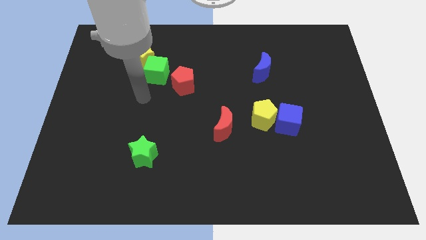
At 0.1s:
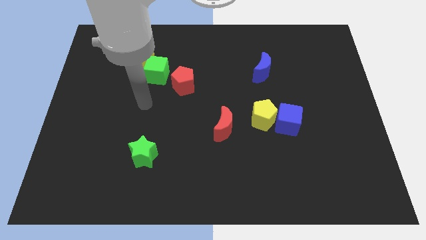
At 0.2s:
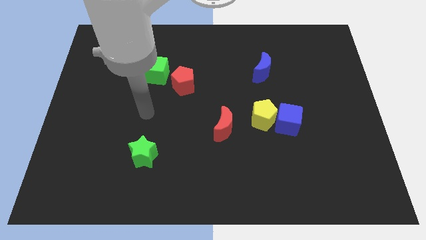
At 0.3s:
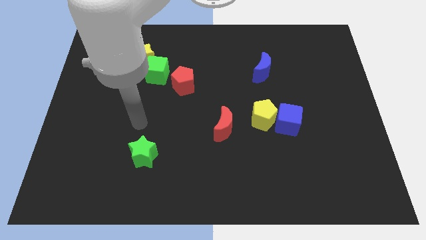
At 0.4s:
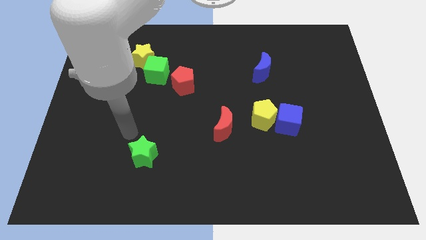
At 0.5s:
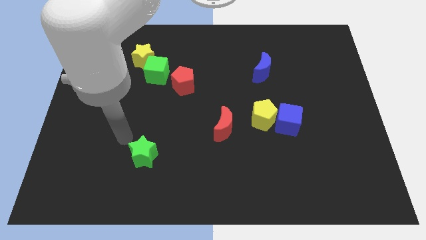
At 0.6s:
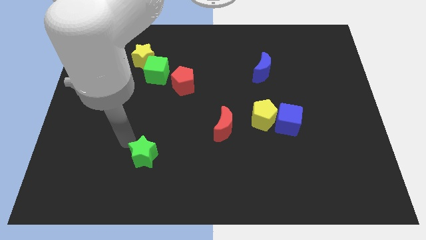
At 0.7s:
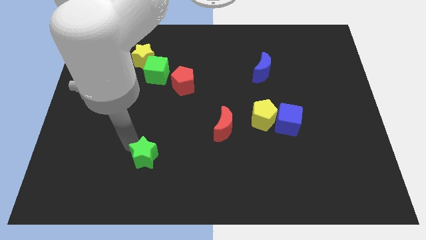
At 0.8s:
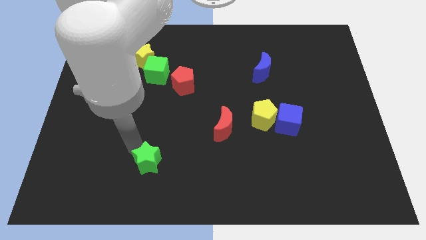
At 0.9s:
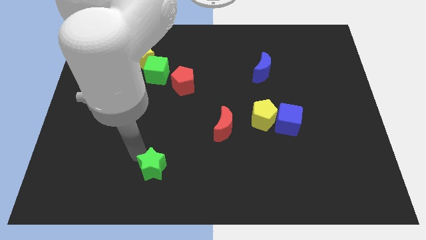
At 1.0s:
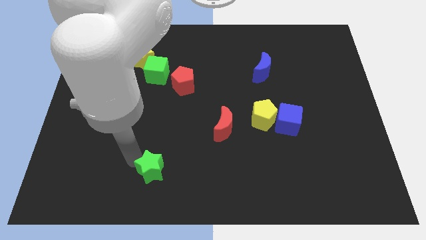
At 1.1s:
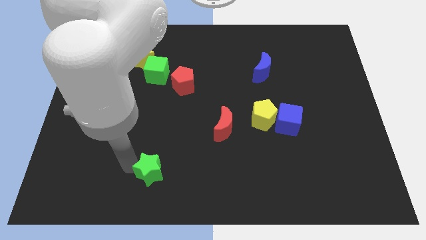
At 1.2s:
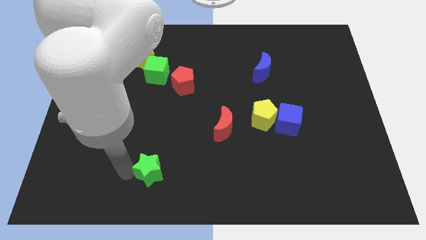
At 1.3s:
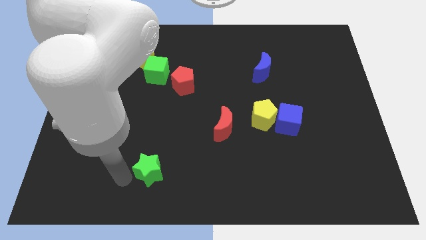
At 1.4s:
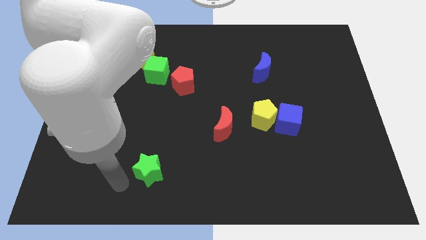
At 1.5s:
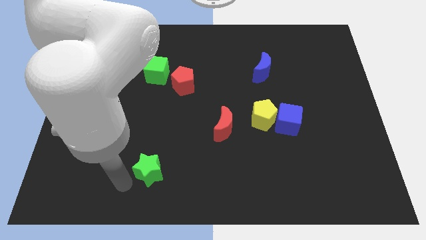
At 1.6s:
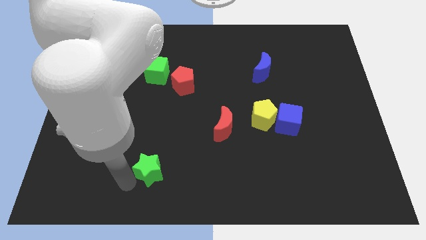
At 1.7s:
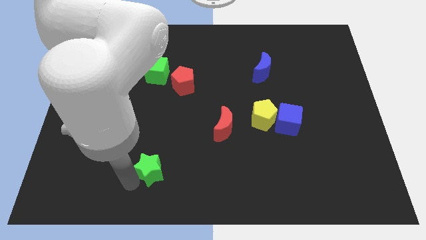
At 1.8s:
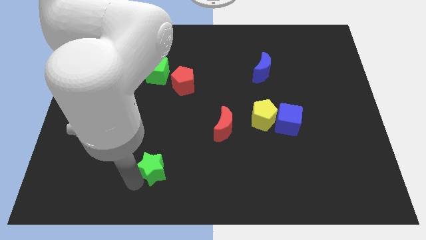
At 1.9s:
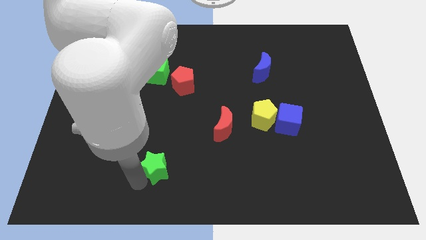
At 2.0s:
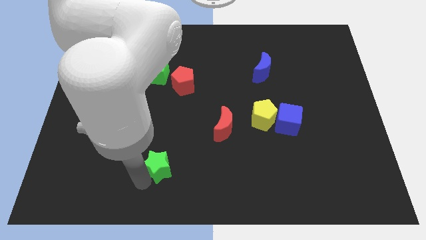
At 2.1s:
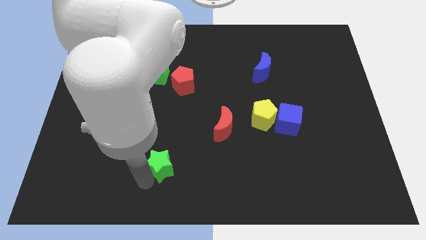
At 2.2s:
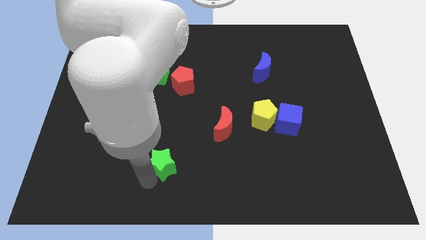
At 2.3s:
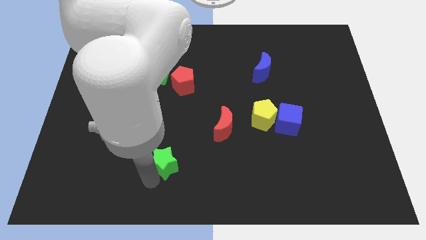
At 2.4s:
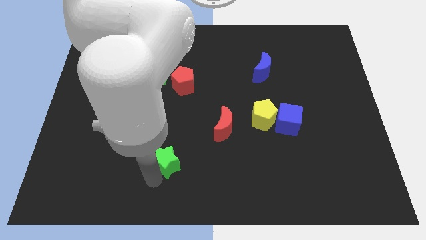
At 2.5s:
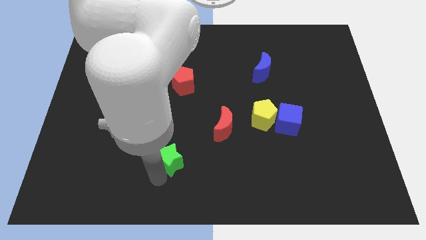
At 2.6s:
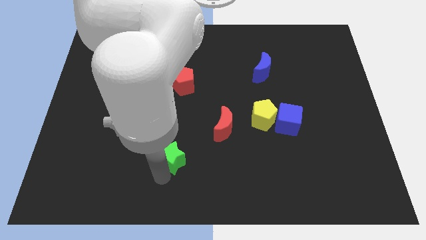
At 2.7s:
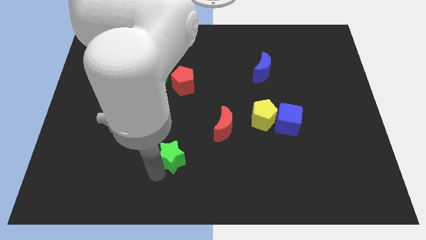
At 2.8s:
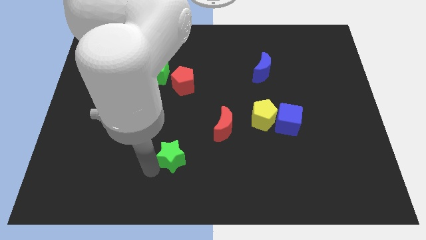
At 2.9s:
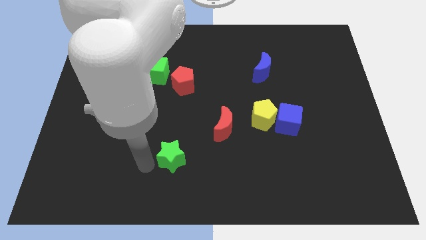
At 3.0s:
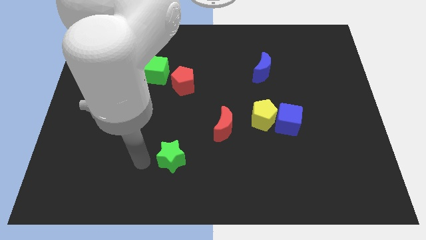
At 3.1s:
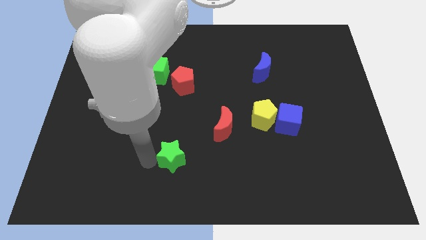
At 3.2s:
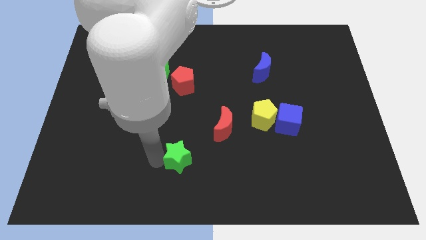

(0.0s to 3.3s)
slightly push the green star right

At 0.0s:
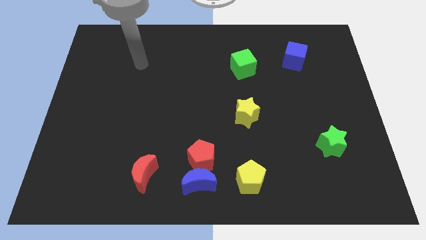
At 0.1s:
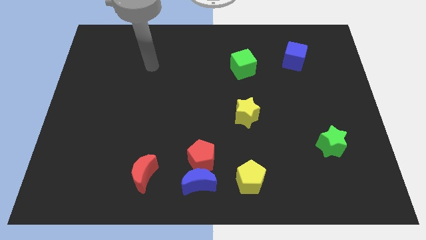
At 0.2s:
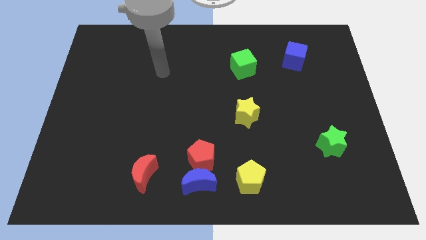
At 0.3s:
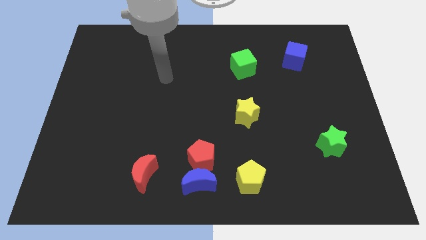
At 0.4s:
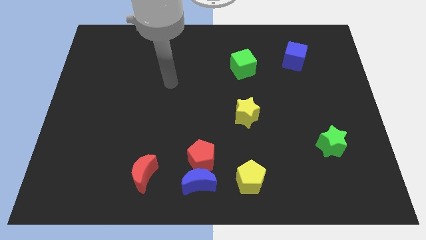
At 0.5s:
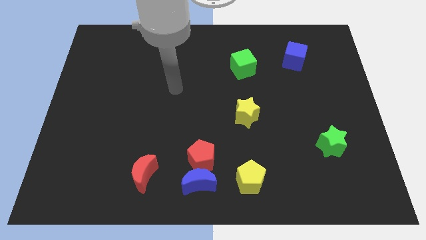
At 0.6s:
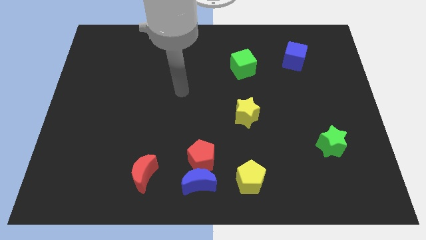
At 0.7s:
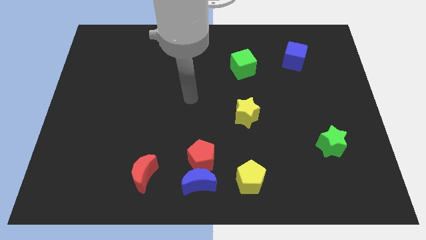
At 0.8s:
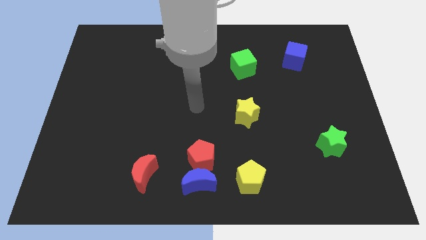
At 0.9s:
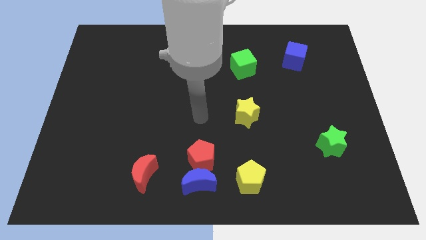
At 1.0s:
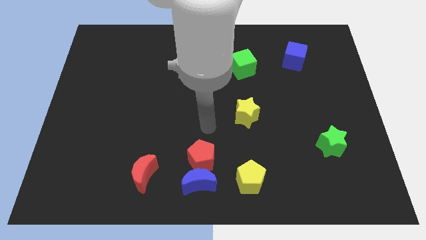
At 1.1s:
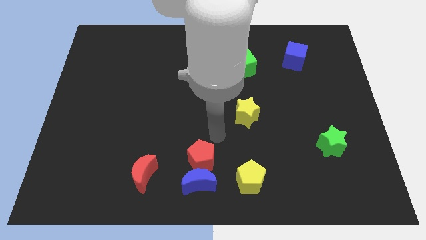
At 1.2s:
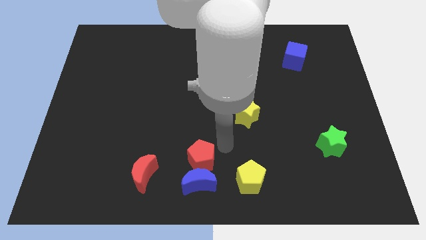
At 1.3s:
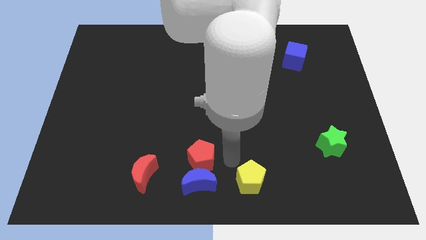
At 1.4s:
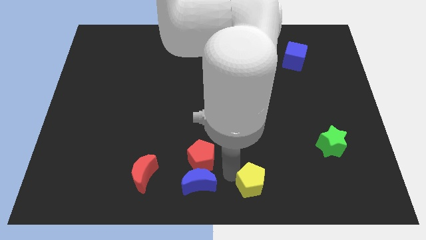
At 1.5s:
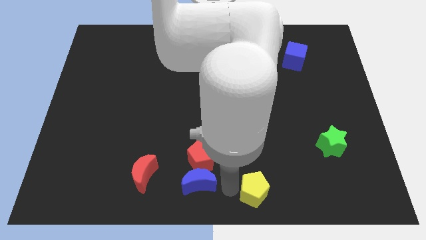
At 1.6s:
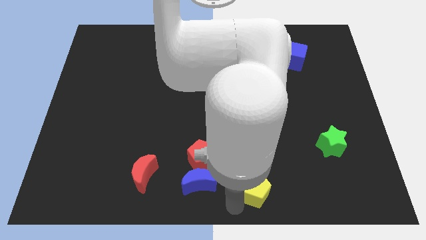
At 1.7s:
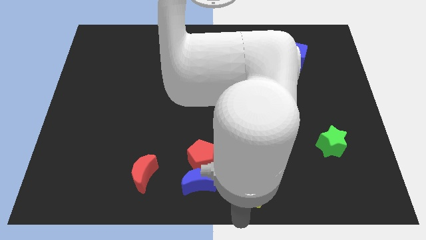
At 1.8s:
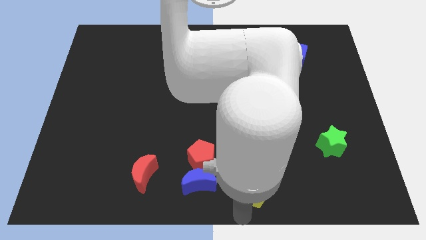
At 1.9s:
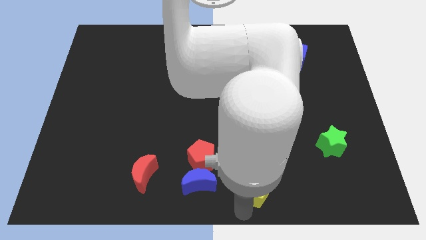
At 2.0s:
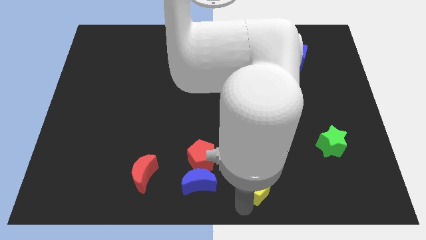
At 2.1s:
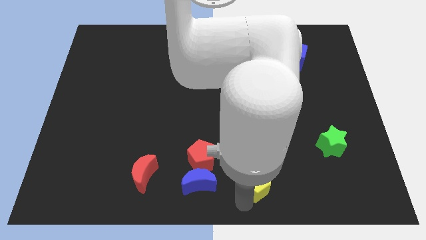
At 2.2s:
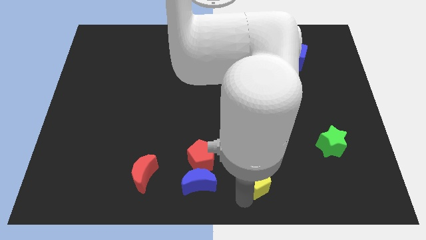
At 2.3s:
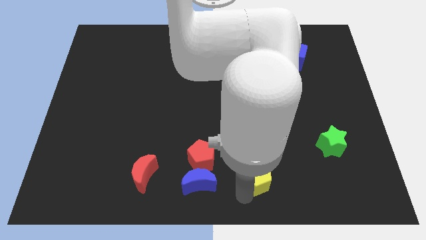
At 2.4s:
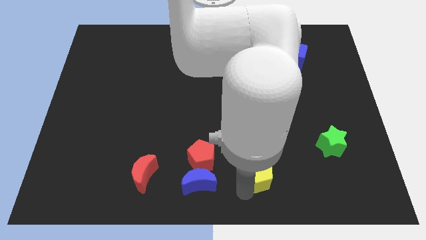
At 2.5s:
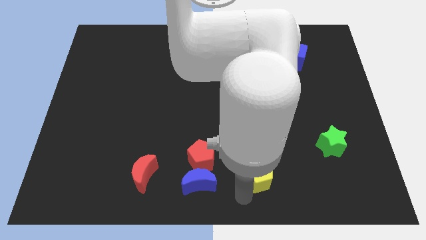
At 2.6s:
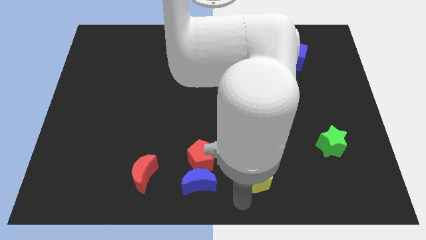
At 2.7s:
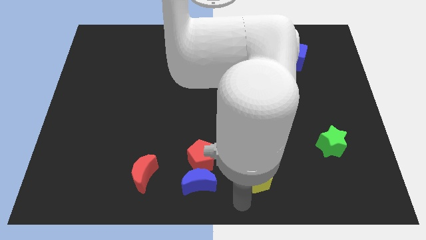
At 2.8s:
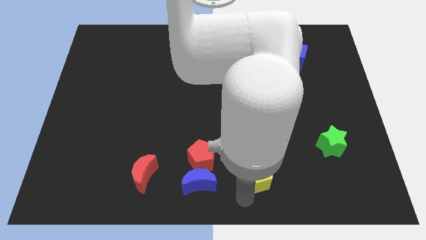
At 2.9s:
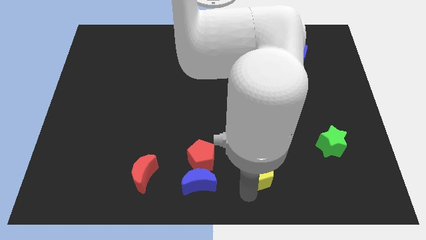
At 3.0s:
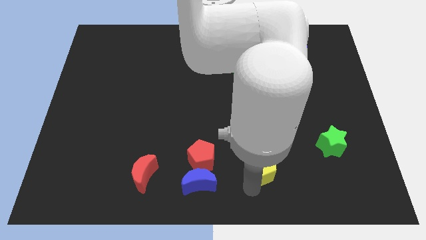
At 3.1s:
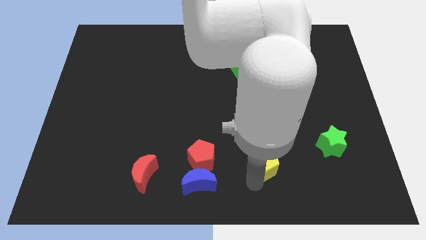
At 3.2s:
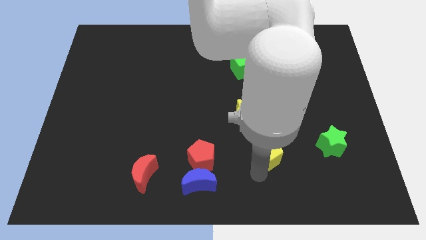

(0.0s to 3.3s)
slightly slide the yellow pentagon up and right diagonally

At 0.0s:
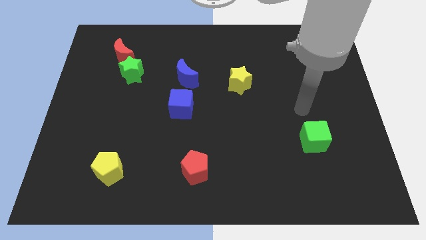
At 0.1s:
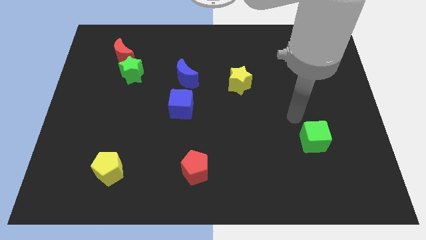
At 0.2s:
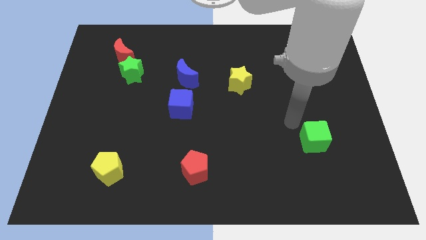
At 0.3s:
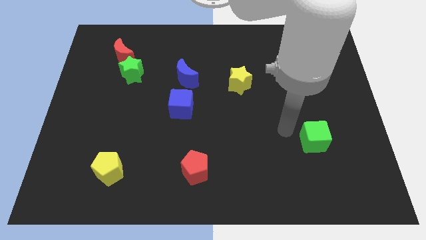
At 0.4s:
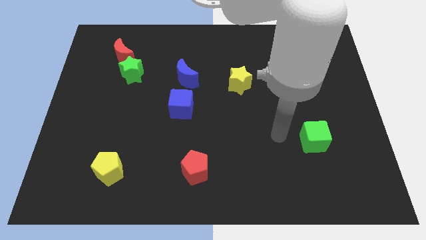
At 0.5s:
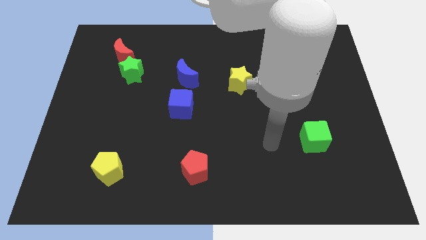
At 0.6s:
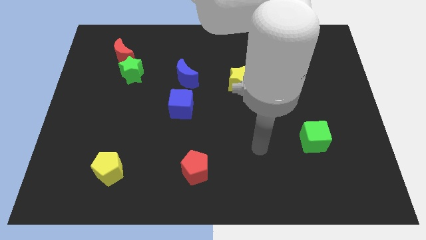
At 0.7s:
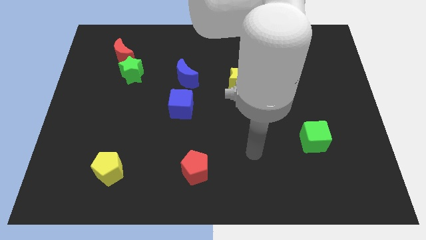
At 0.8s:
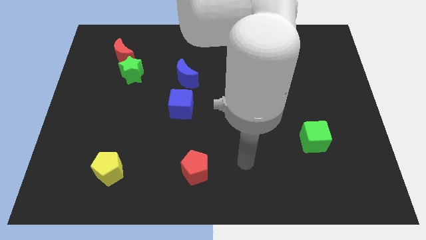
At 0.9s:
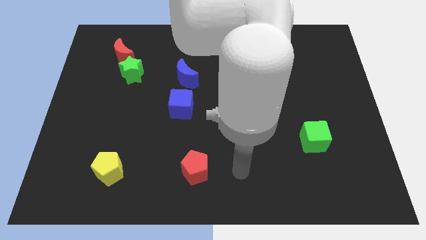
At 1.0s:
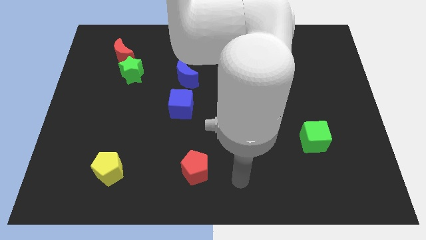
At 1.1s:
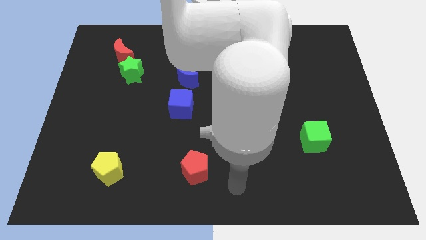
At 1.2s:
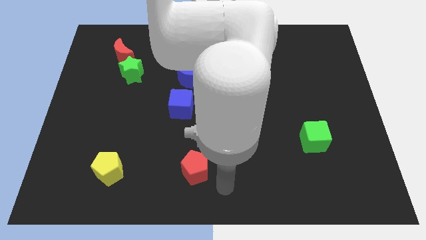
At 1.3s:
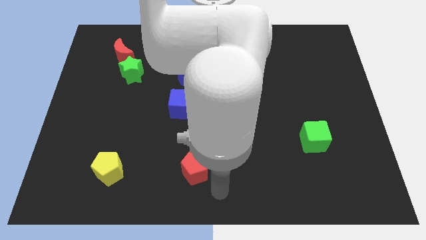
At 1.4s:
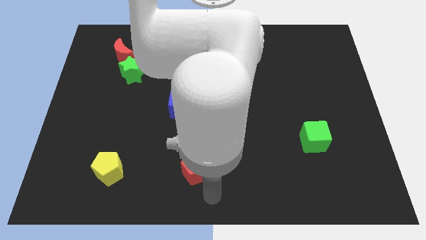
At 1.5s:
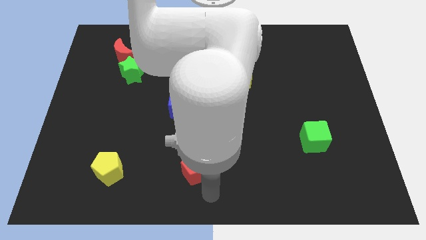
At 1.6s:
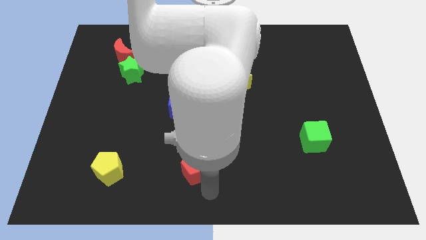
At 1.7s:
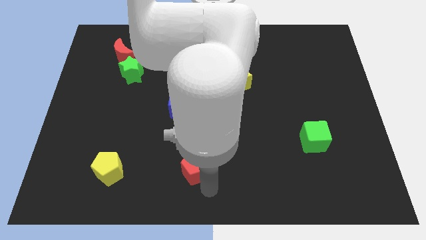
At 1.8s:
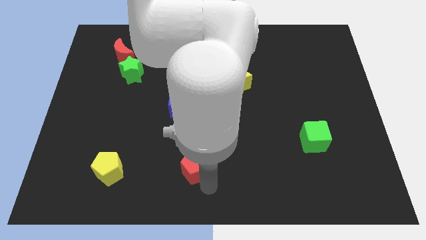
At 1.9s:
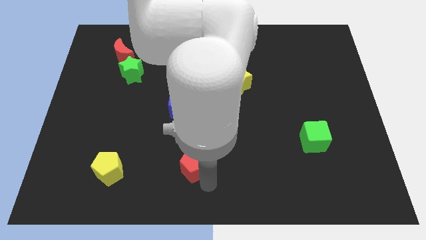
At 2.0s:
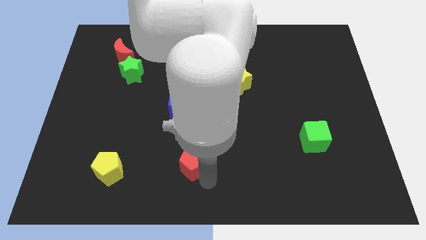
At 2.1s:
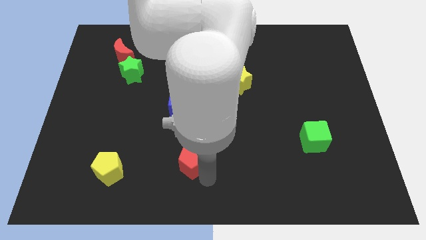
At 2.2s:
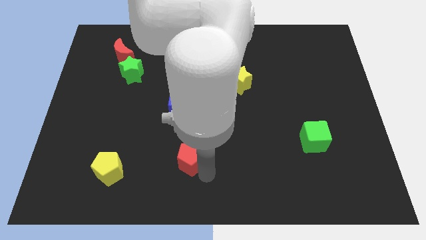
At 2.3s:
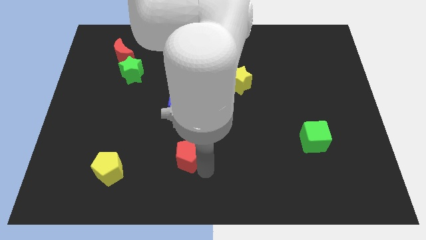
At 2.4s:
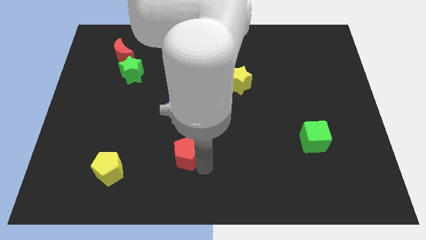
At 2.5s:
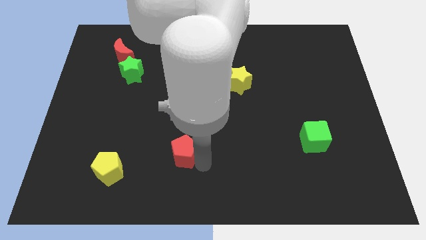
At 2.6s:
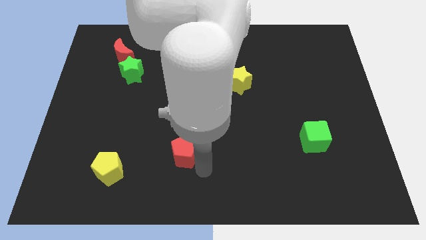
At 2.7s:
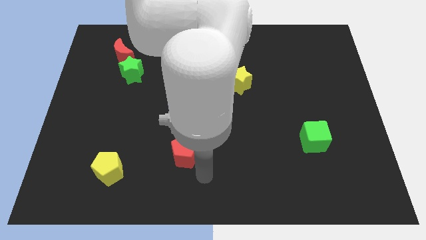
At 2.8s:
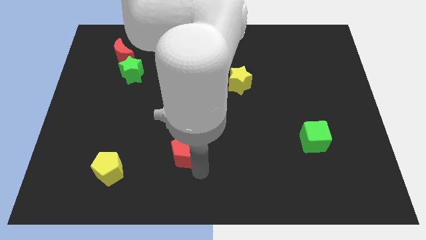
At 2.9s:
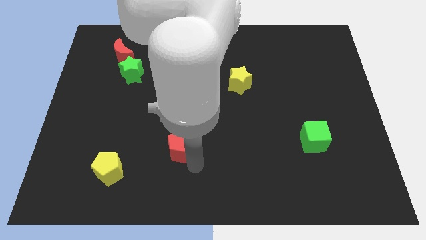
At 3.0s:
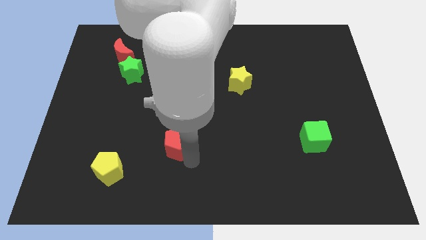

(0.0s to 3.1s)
slide the red pentagon a little upwards and to the left diagonally
